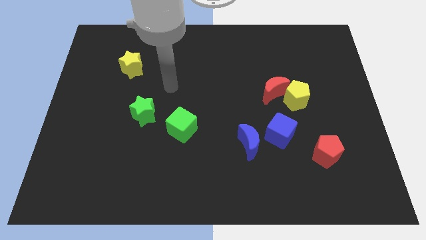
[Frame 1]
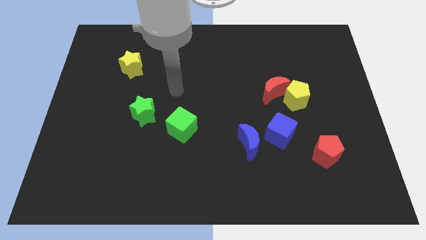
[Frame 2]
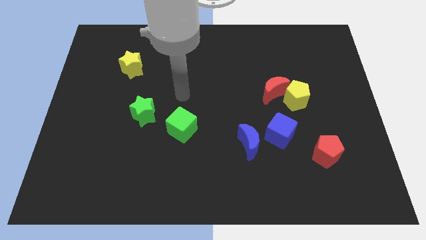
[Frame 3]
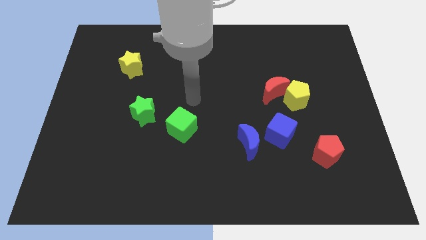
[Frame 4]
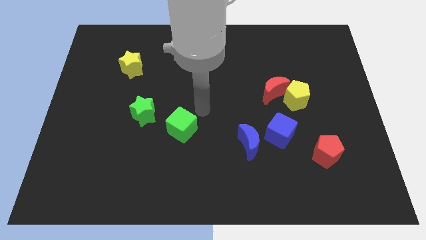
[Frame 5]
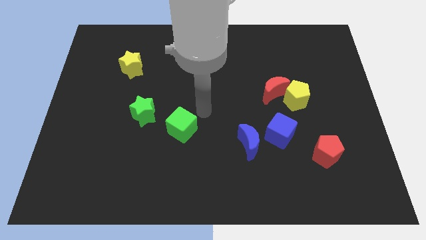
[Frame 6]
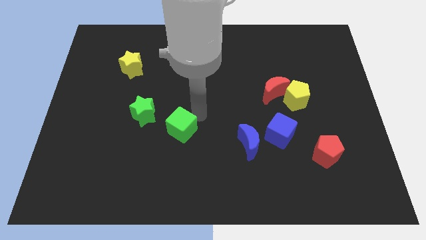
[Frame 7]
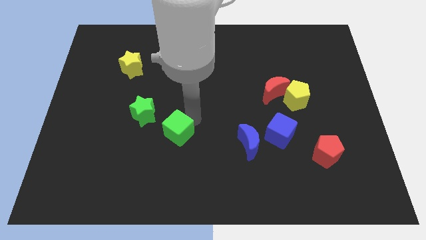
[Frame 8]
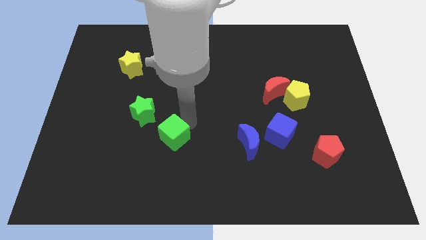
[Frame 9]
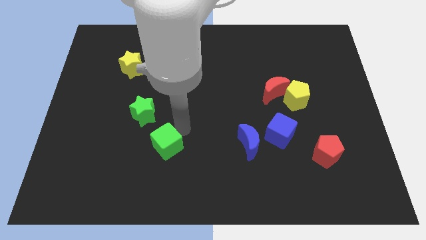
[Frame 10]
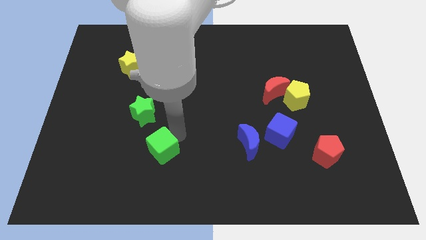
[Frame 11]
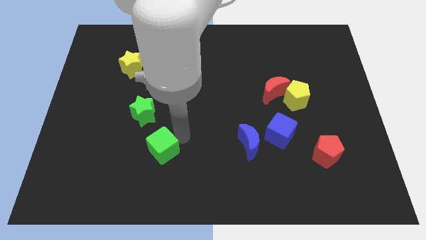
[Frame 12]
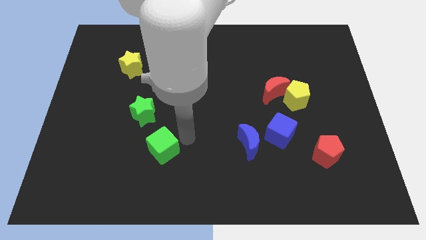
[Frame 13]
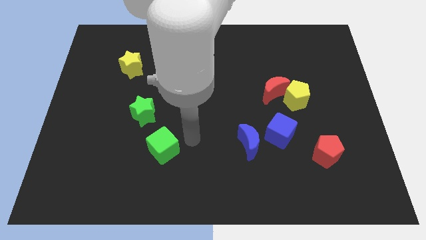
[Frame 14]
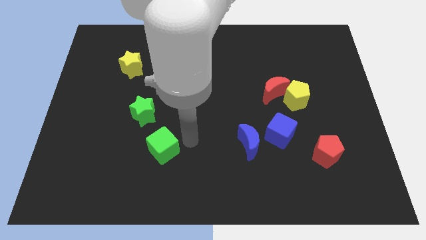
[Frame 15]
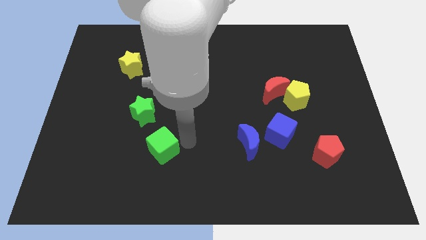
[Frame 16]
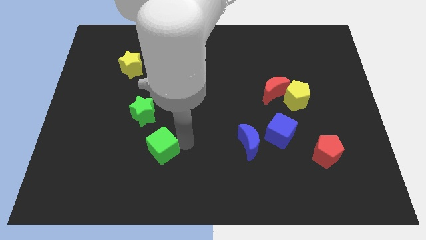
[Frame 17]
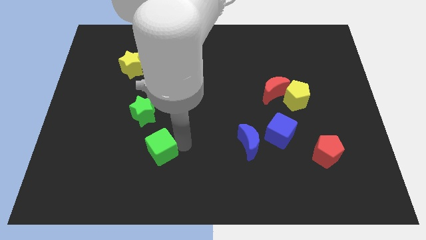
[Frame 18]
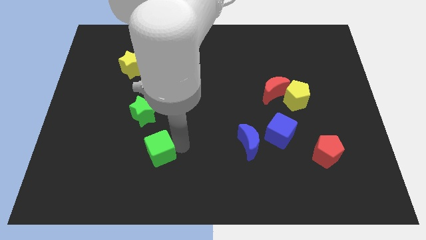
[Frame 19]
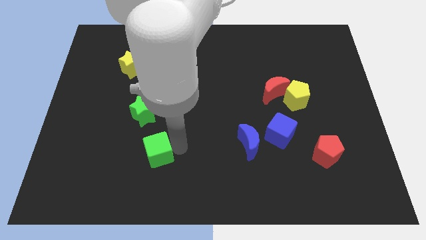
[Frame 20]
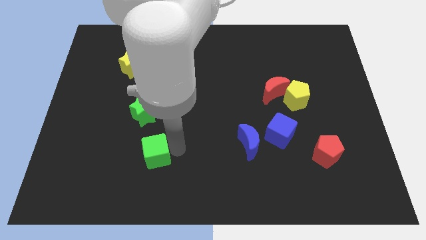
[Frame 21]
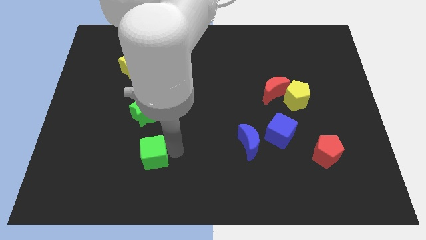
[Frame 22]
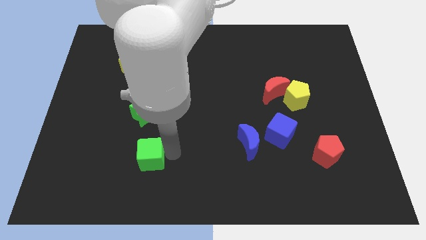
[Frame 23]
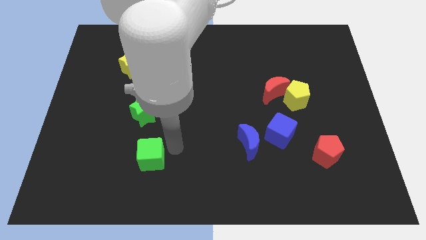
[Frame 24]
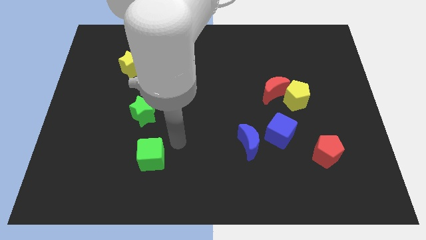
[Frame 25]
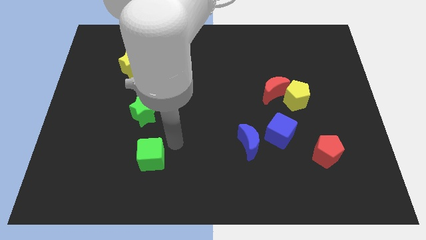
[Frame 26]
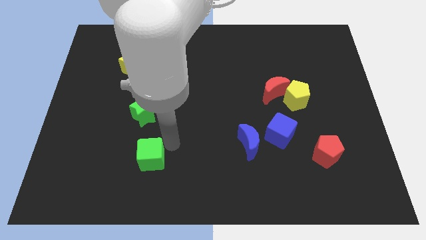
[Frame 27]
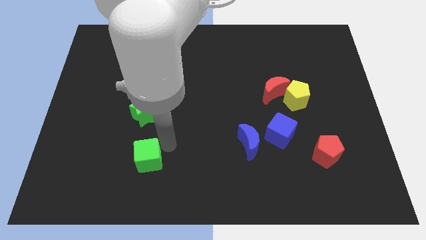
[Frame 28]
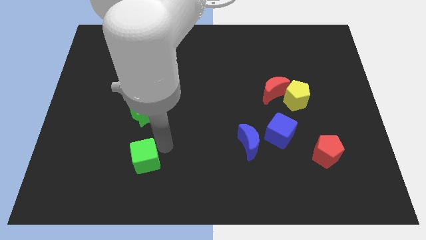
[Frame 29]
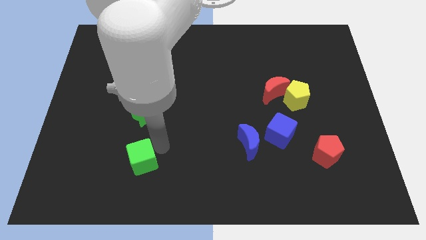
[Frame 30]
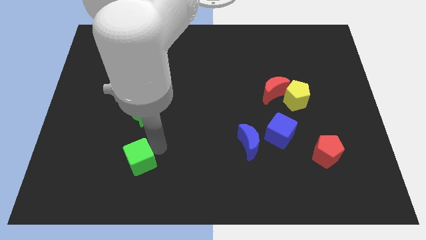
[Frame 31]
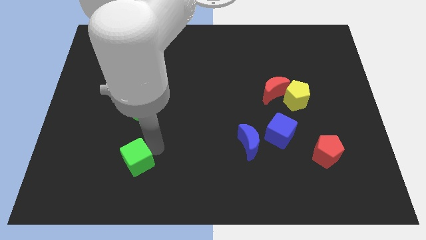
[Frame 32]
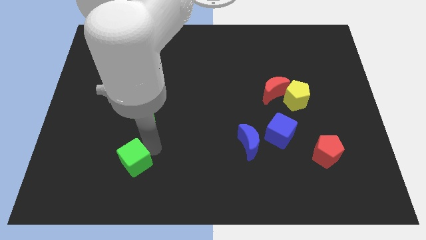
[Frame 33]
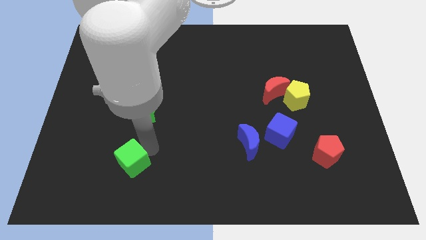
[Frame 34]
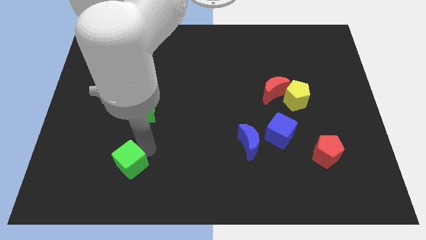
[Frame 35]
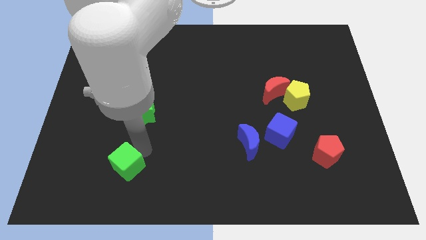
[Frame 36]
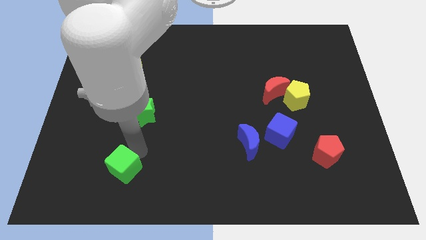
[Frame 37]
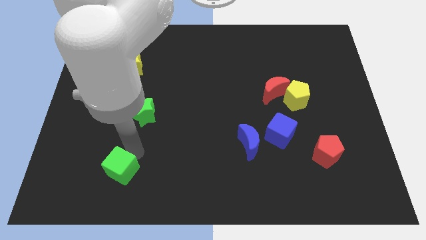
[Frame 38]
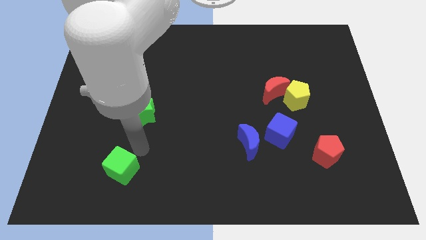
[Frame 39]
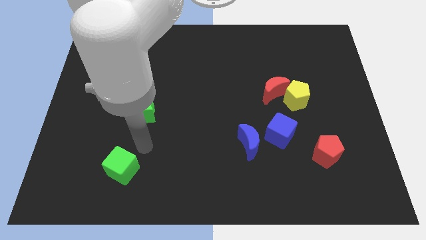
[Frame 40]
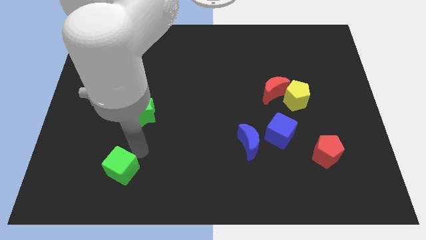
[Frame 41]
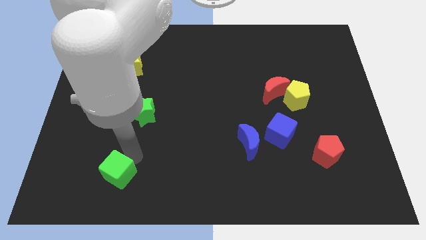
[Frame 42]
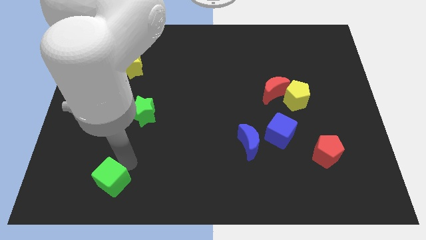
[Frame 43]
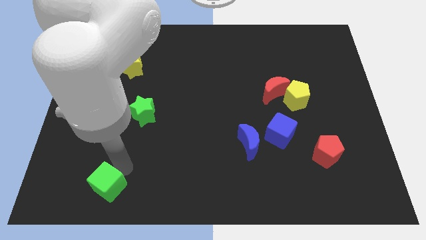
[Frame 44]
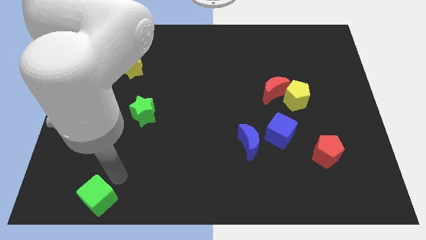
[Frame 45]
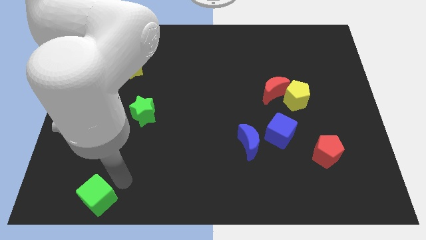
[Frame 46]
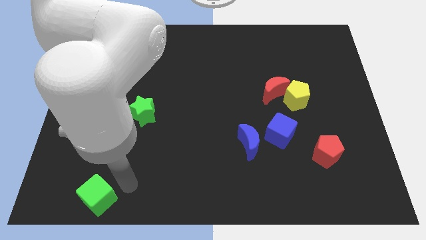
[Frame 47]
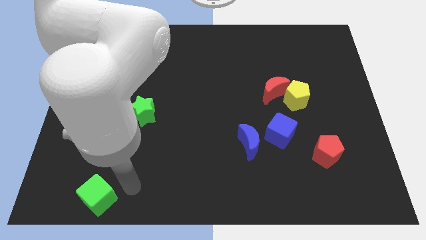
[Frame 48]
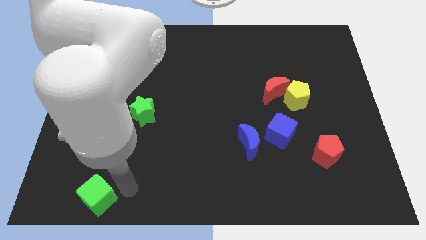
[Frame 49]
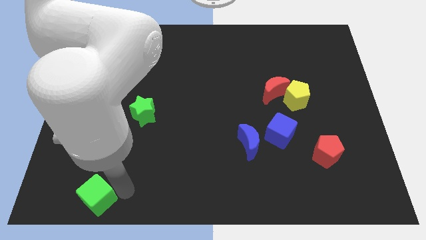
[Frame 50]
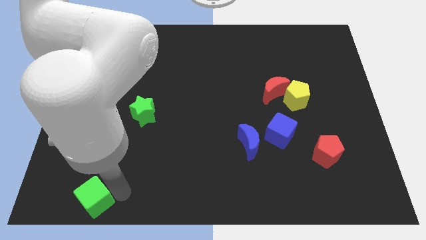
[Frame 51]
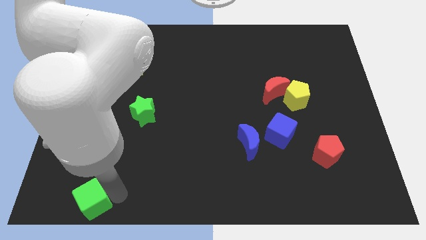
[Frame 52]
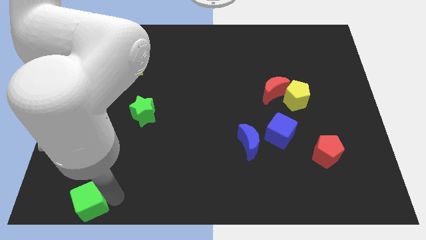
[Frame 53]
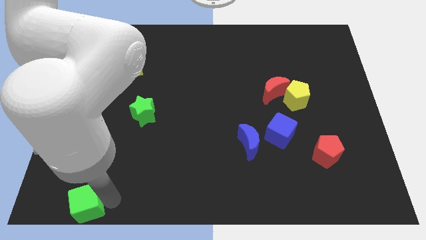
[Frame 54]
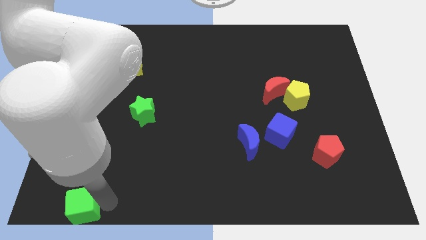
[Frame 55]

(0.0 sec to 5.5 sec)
push the green cube to the bottom left of the board

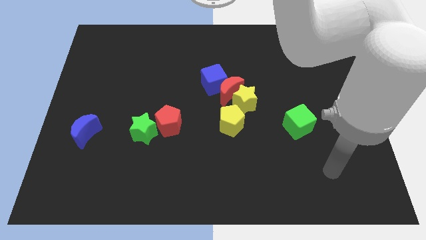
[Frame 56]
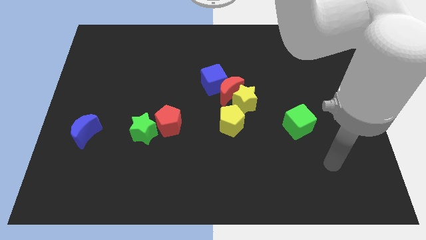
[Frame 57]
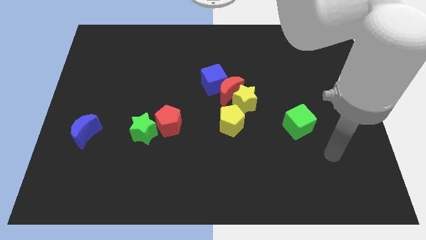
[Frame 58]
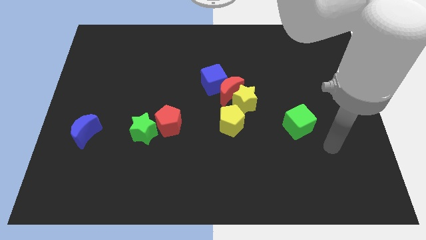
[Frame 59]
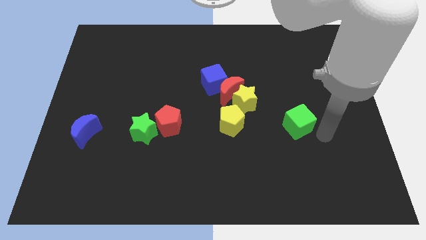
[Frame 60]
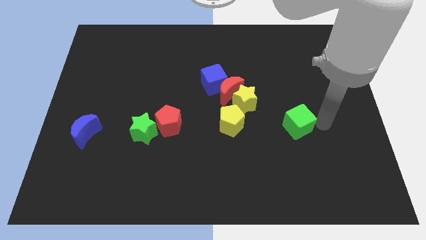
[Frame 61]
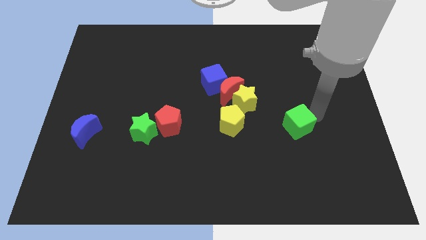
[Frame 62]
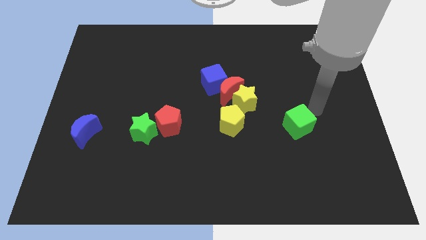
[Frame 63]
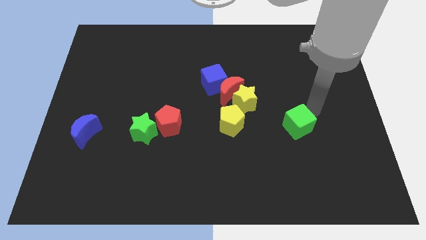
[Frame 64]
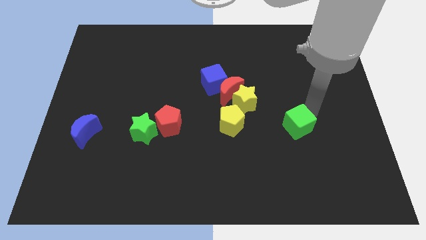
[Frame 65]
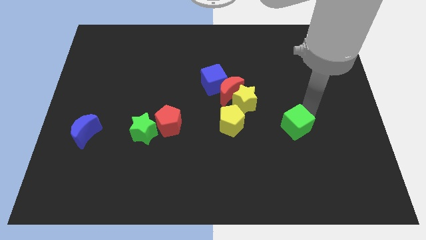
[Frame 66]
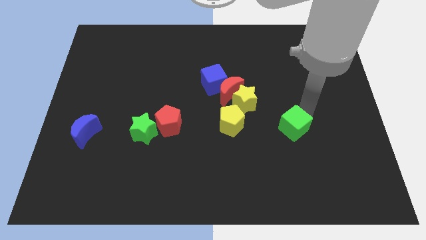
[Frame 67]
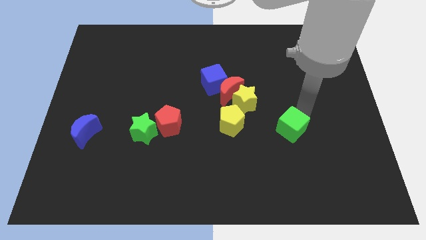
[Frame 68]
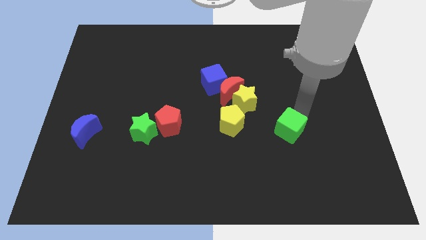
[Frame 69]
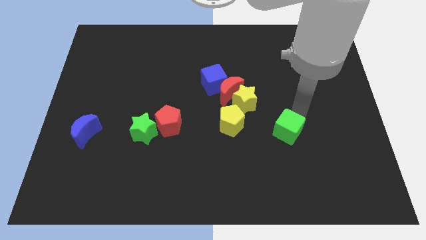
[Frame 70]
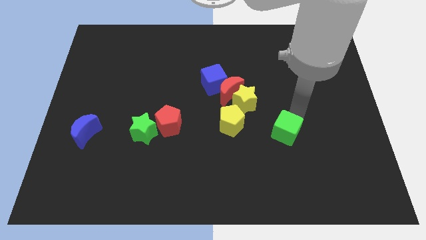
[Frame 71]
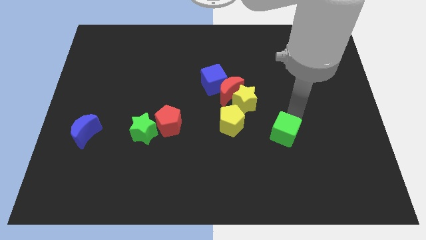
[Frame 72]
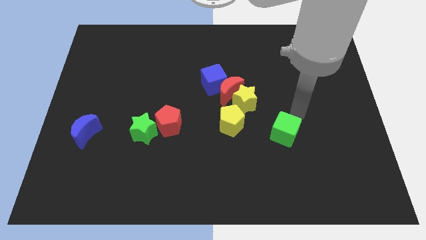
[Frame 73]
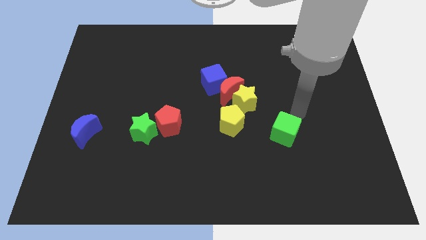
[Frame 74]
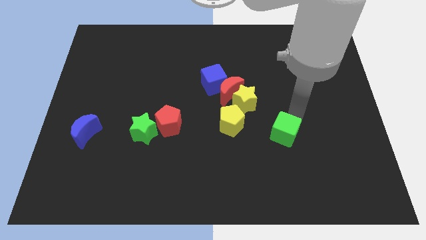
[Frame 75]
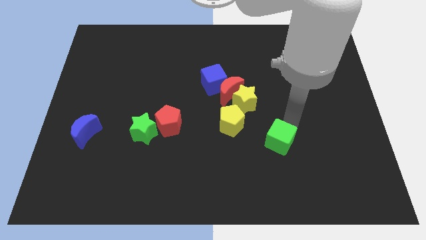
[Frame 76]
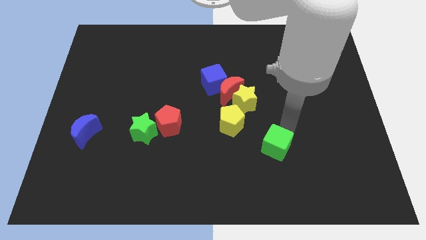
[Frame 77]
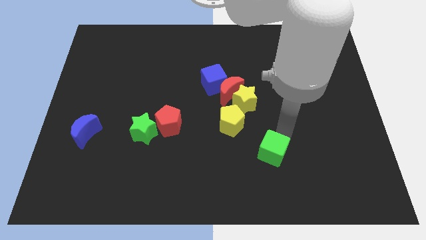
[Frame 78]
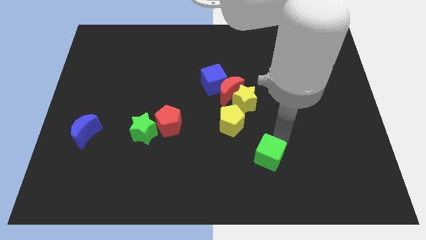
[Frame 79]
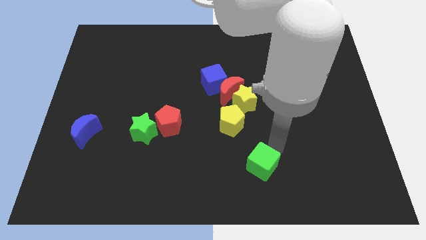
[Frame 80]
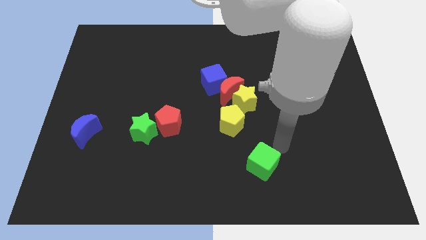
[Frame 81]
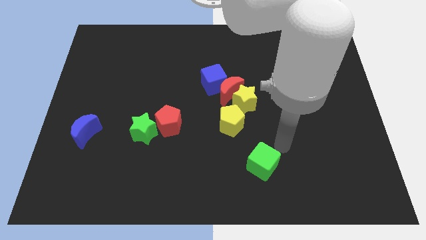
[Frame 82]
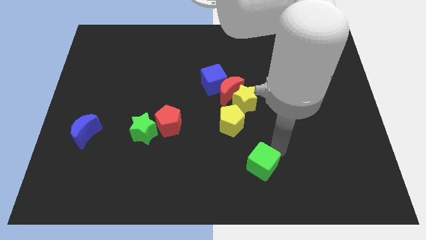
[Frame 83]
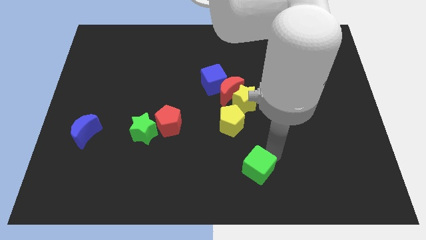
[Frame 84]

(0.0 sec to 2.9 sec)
put the green cube to the bottom side
